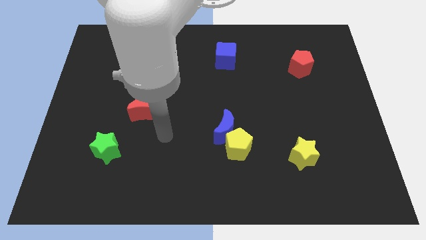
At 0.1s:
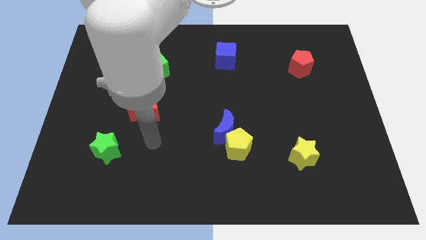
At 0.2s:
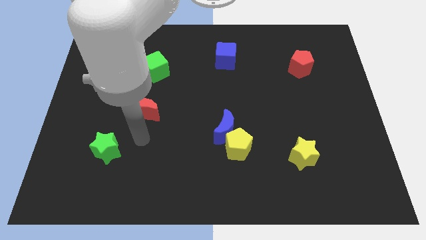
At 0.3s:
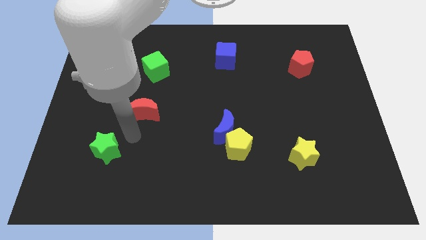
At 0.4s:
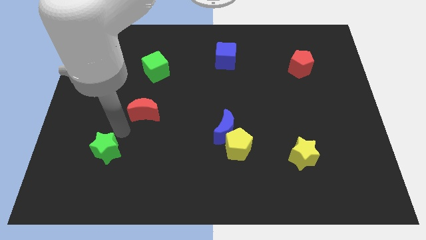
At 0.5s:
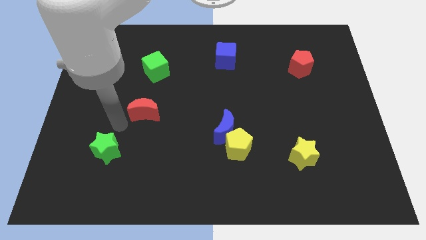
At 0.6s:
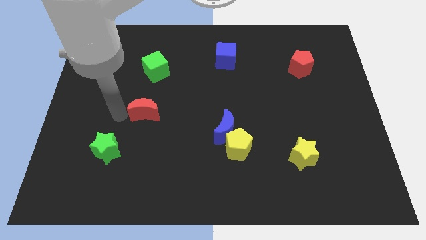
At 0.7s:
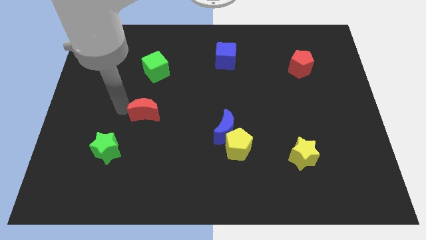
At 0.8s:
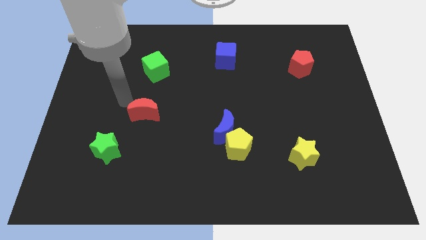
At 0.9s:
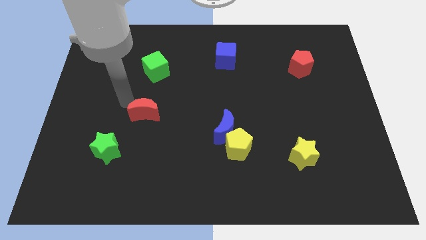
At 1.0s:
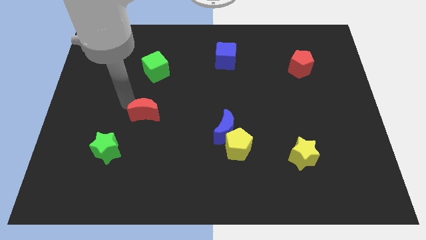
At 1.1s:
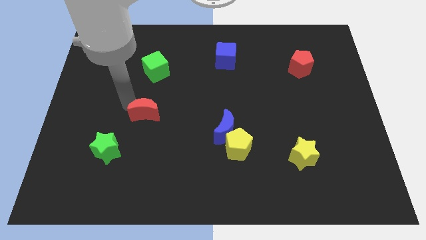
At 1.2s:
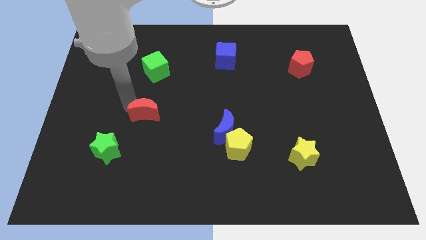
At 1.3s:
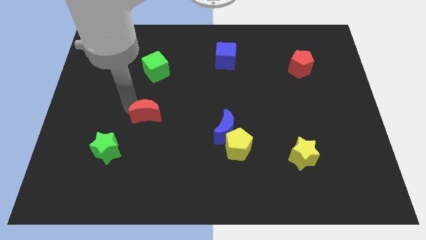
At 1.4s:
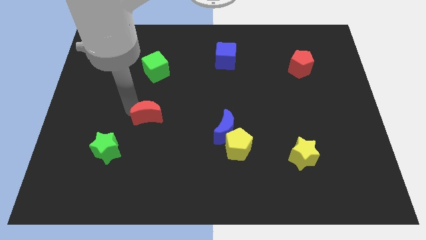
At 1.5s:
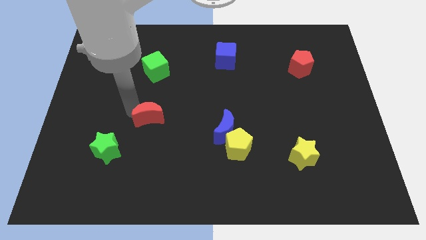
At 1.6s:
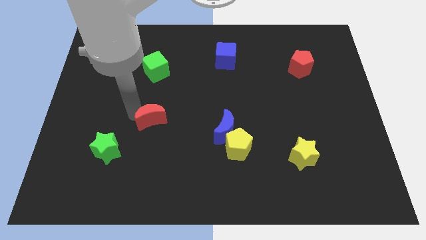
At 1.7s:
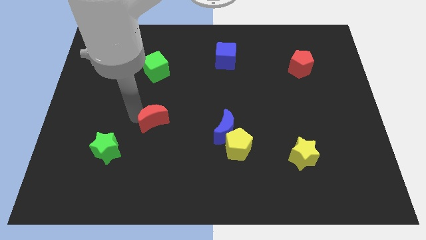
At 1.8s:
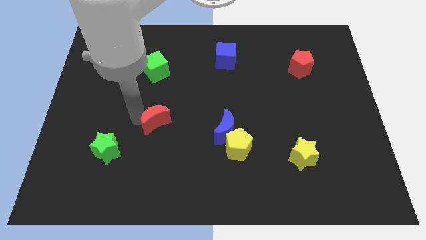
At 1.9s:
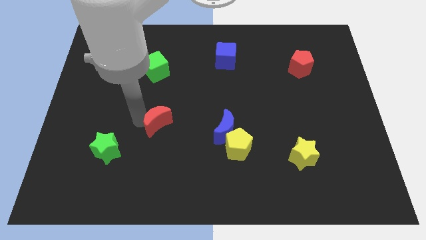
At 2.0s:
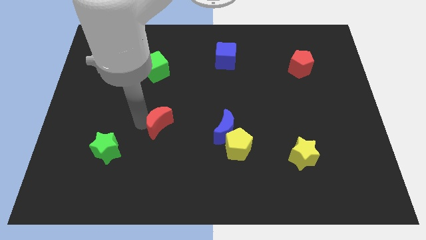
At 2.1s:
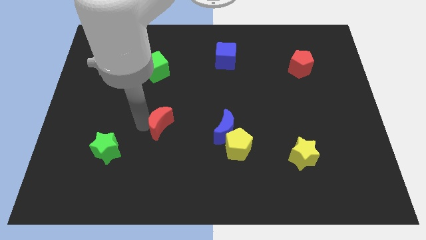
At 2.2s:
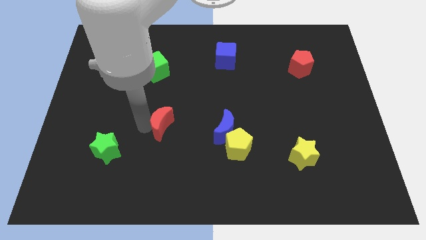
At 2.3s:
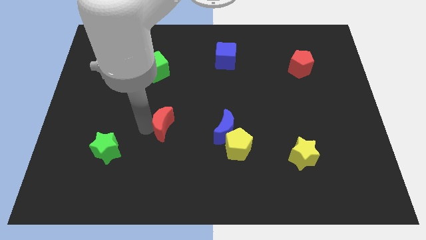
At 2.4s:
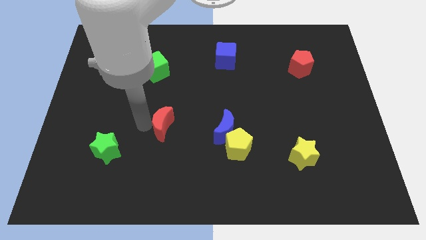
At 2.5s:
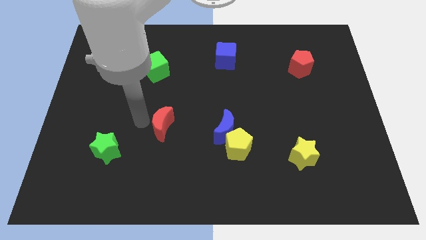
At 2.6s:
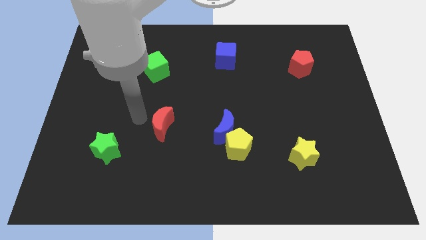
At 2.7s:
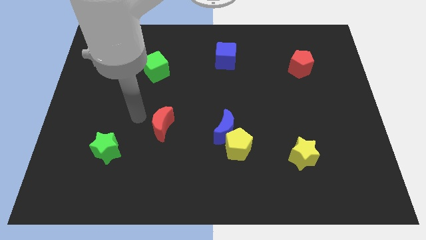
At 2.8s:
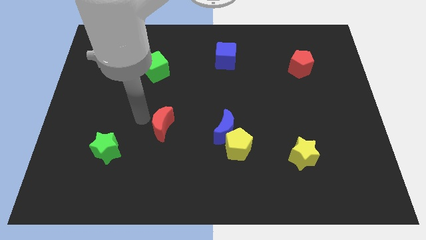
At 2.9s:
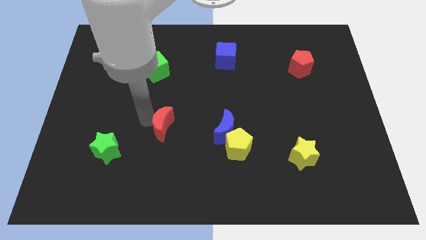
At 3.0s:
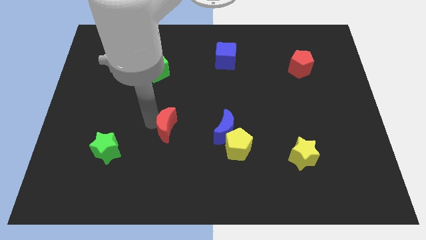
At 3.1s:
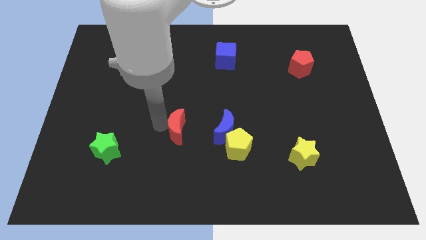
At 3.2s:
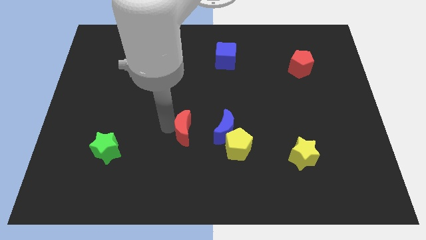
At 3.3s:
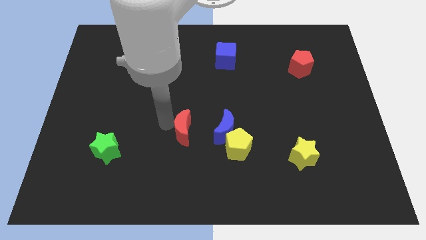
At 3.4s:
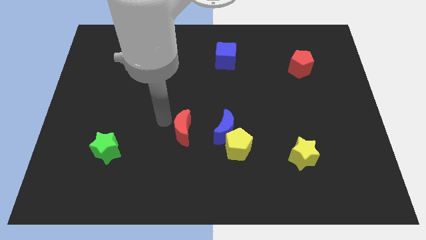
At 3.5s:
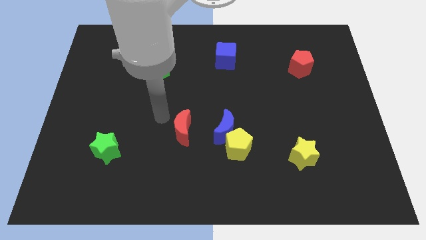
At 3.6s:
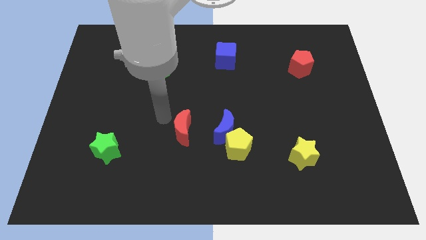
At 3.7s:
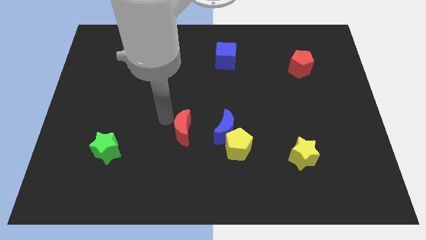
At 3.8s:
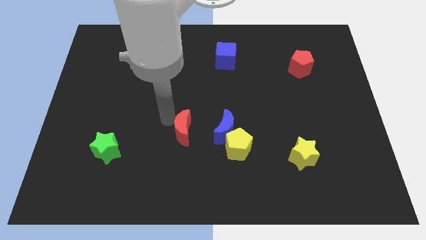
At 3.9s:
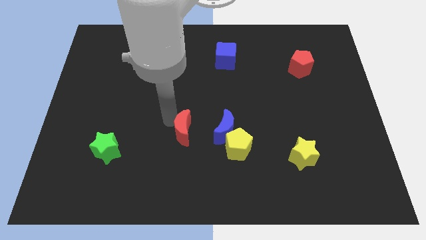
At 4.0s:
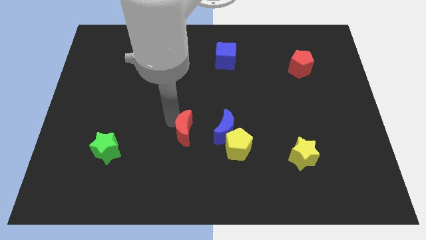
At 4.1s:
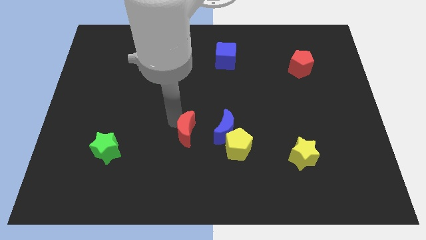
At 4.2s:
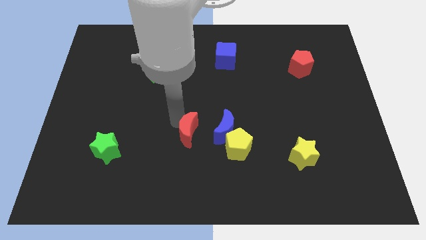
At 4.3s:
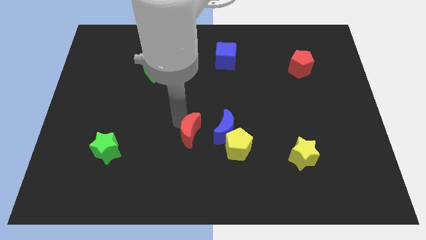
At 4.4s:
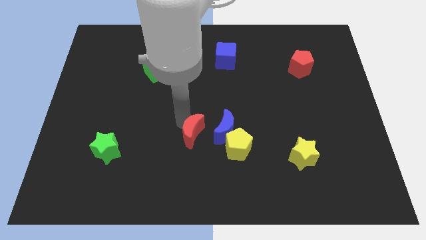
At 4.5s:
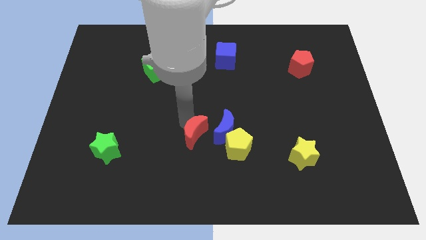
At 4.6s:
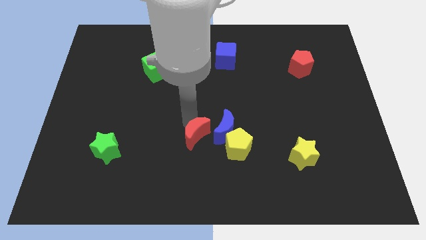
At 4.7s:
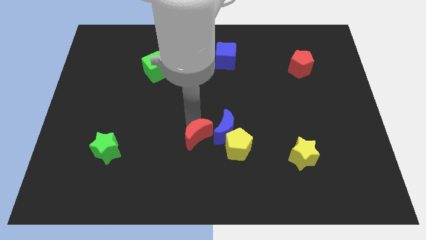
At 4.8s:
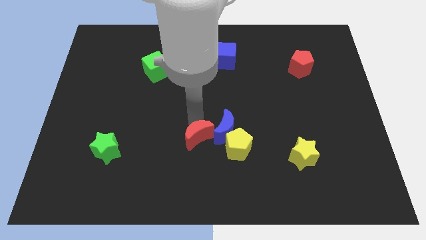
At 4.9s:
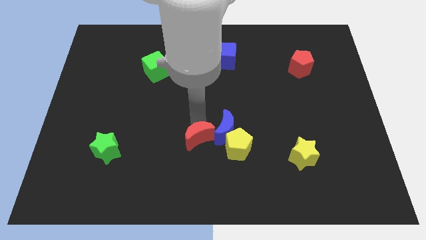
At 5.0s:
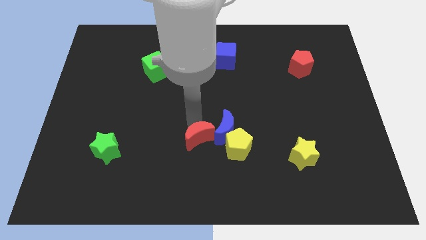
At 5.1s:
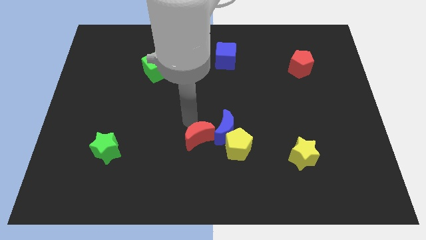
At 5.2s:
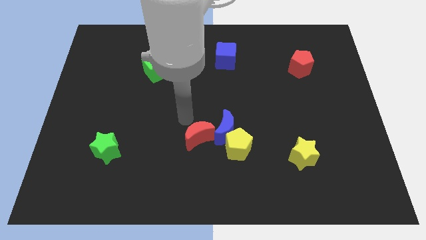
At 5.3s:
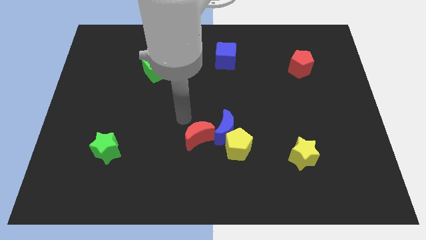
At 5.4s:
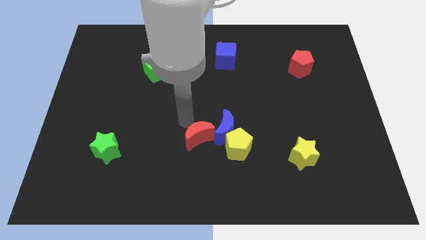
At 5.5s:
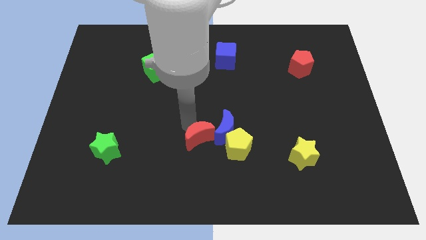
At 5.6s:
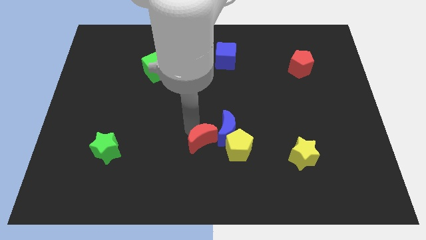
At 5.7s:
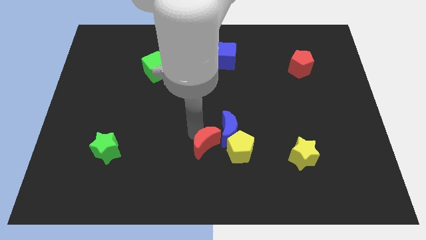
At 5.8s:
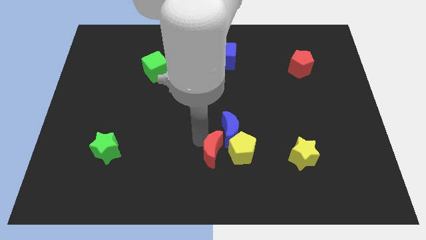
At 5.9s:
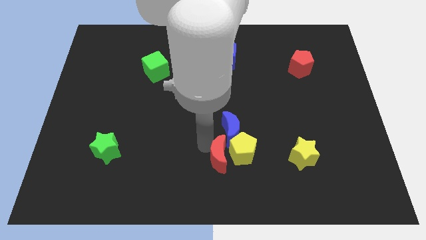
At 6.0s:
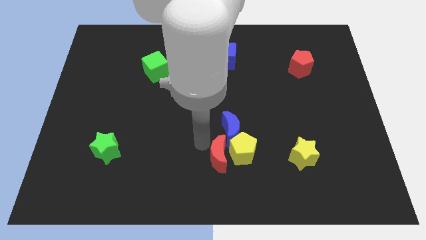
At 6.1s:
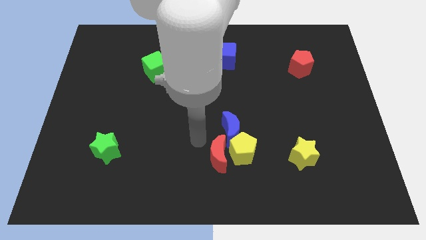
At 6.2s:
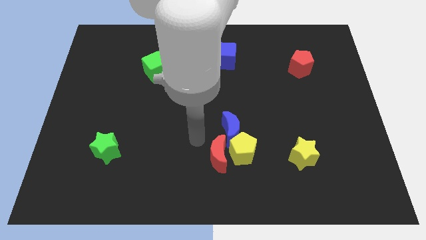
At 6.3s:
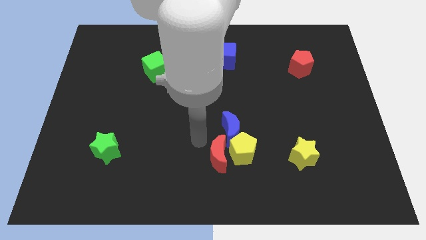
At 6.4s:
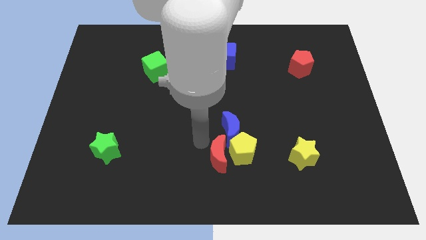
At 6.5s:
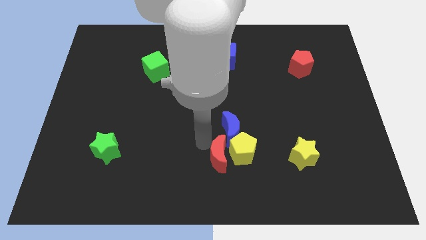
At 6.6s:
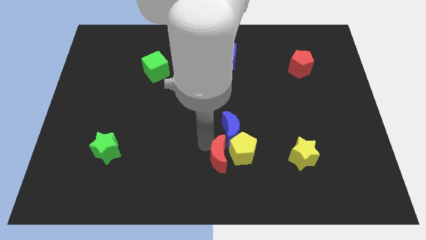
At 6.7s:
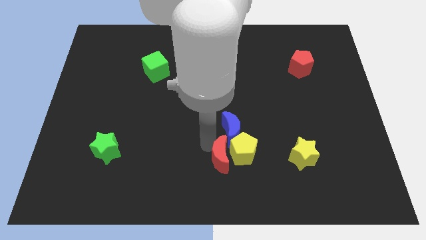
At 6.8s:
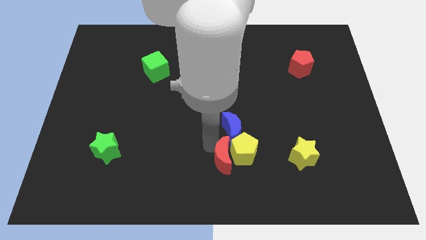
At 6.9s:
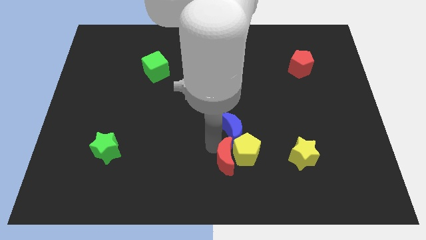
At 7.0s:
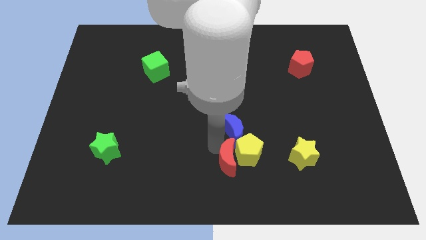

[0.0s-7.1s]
push the red moon left of the yellow star
